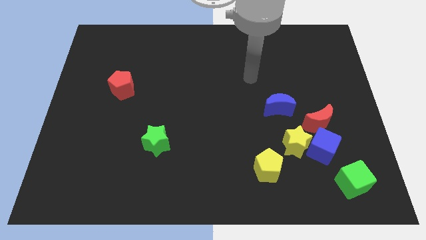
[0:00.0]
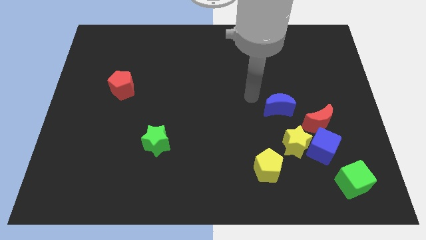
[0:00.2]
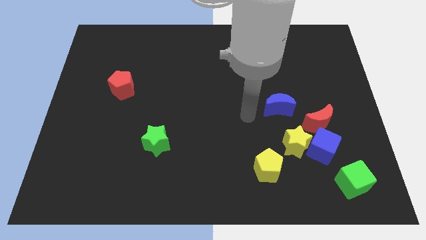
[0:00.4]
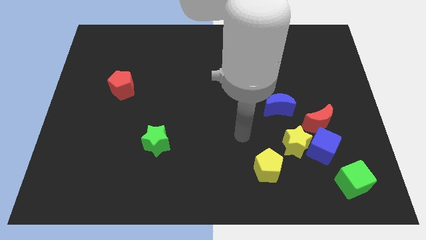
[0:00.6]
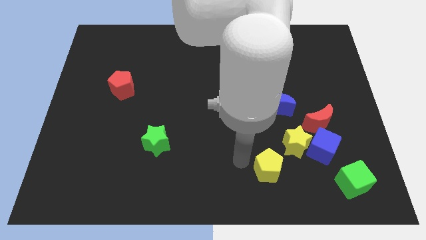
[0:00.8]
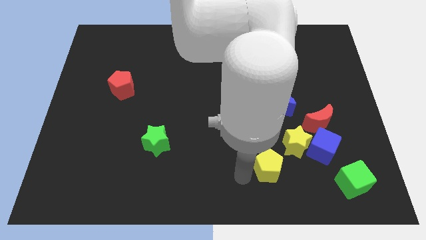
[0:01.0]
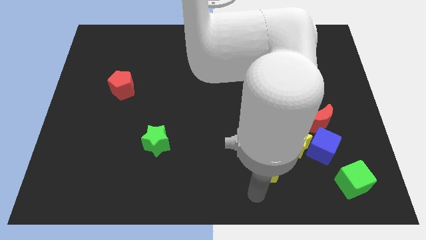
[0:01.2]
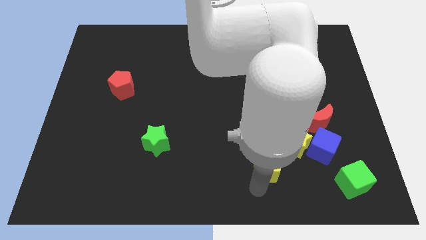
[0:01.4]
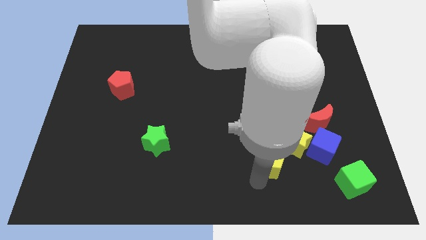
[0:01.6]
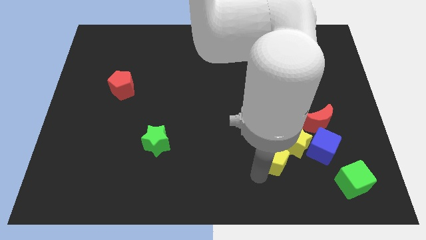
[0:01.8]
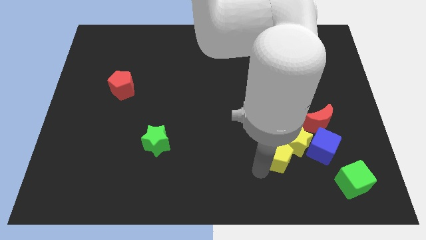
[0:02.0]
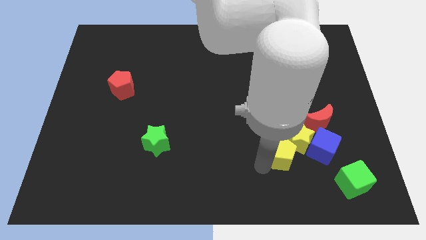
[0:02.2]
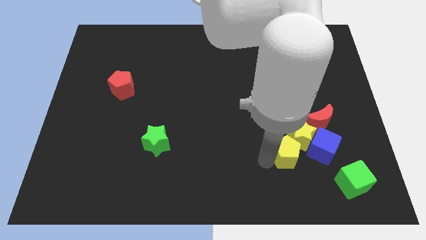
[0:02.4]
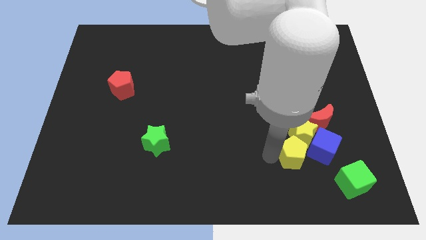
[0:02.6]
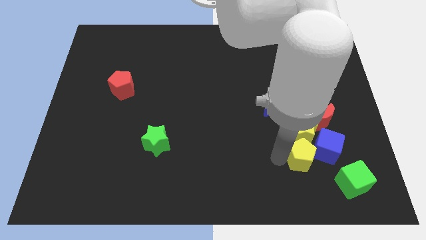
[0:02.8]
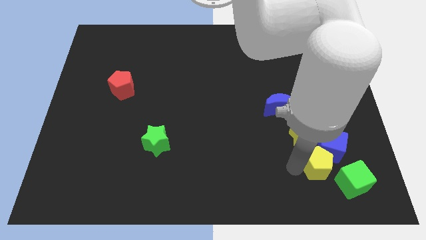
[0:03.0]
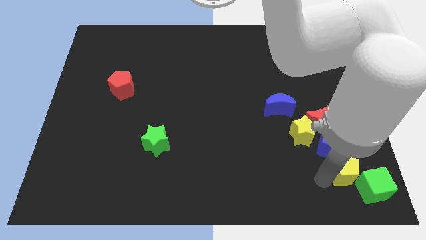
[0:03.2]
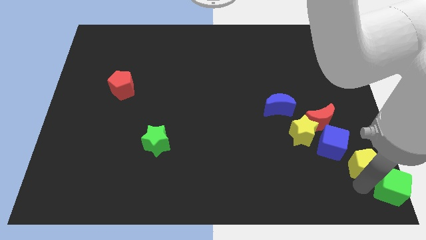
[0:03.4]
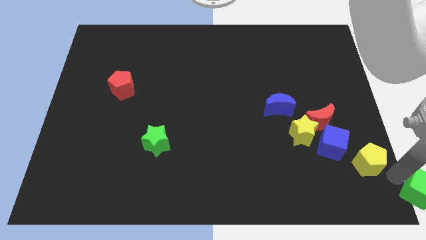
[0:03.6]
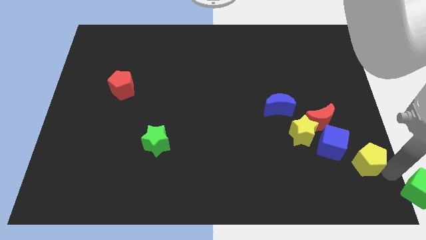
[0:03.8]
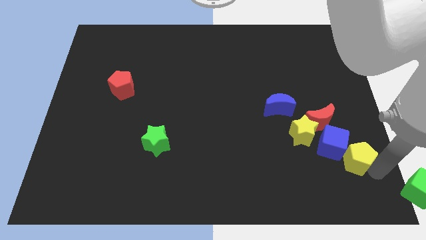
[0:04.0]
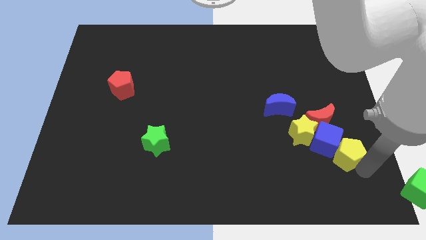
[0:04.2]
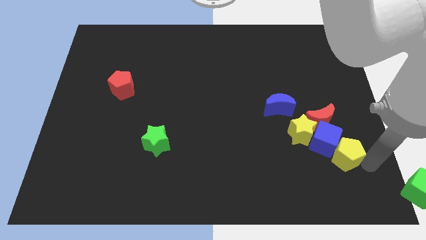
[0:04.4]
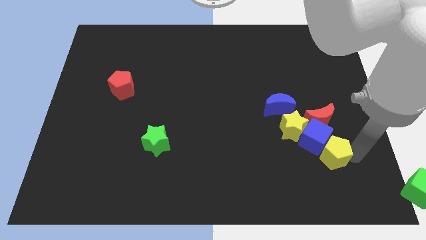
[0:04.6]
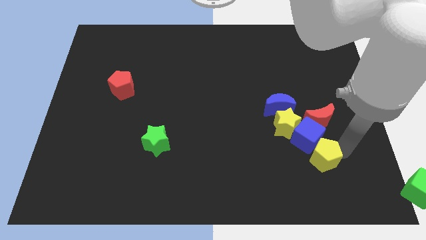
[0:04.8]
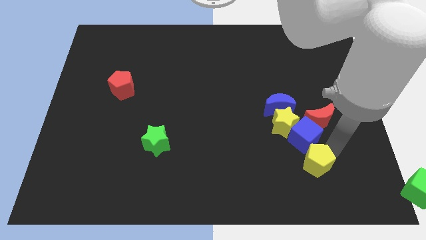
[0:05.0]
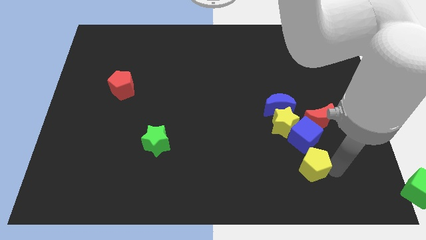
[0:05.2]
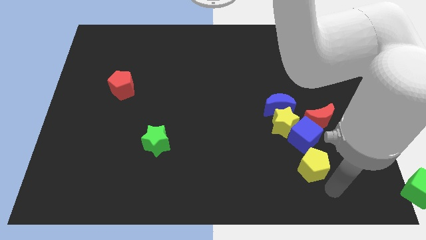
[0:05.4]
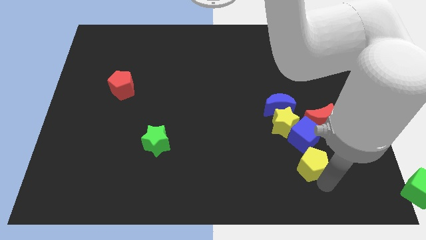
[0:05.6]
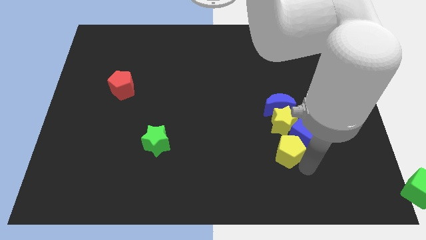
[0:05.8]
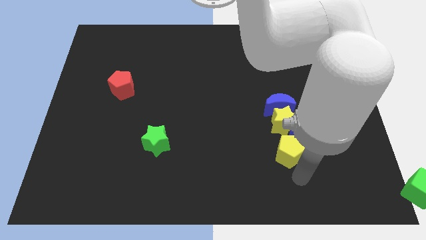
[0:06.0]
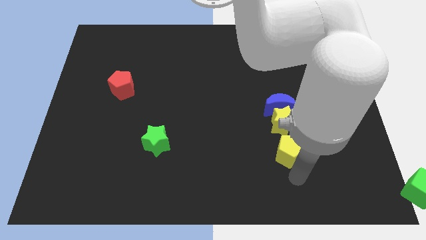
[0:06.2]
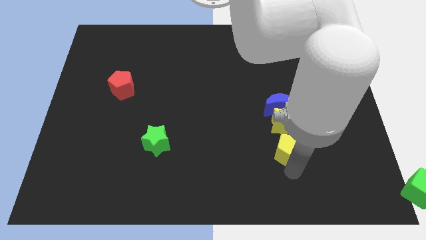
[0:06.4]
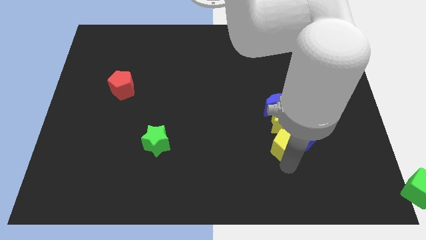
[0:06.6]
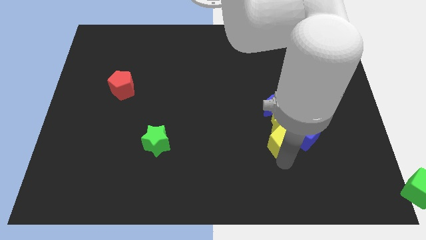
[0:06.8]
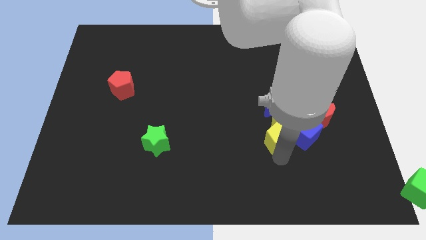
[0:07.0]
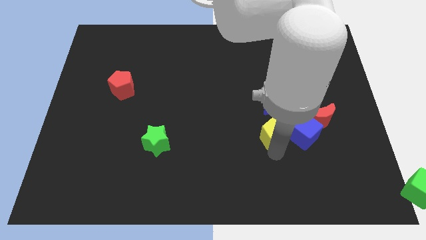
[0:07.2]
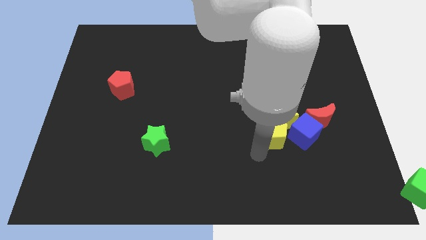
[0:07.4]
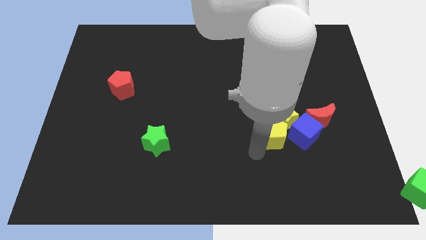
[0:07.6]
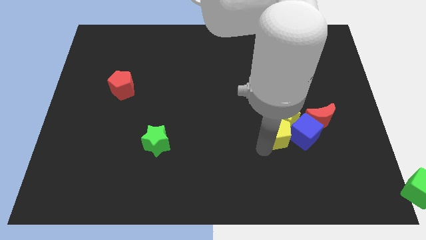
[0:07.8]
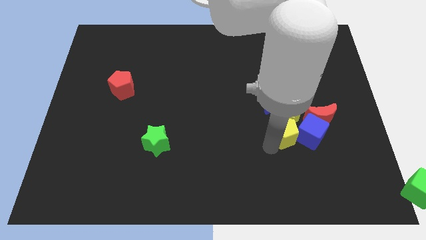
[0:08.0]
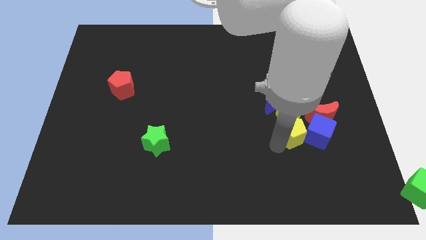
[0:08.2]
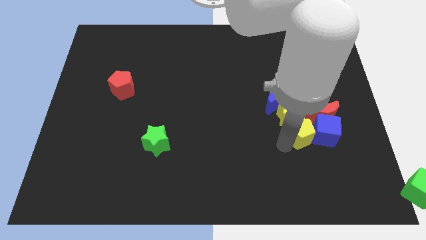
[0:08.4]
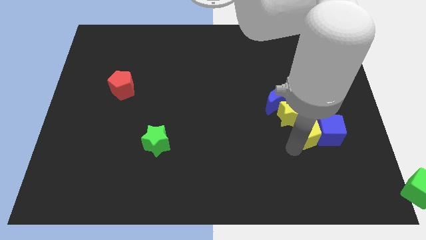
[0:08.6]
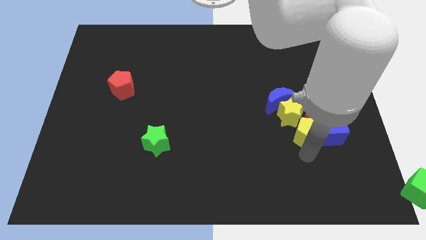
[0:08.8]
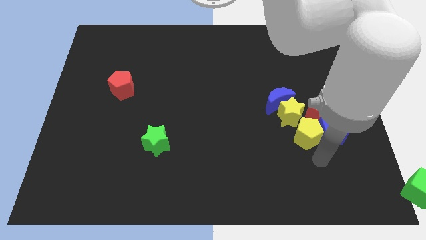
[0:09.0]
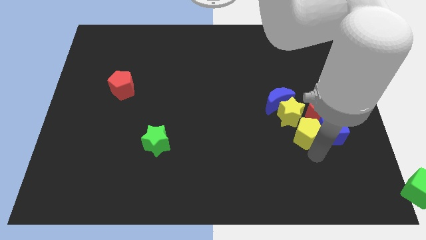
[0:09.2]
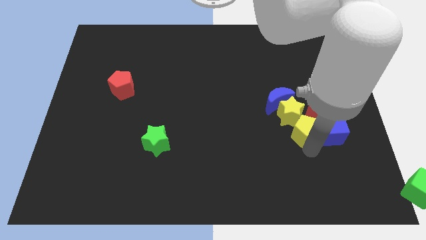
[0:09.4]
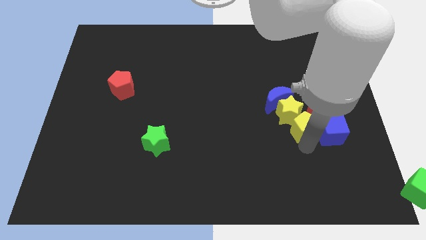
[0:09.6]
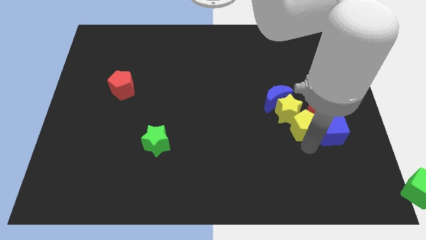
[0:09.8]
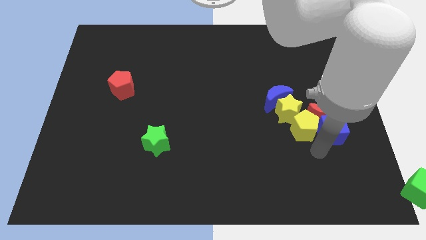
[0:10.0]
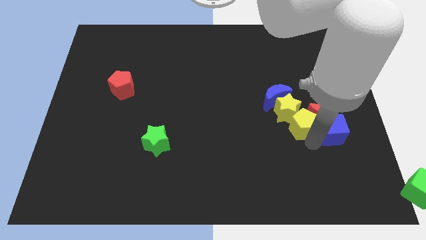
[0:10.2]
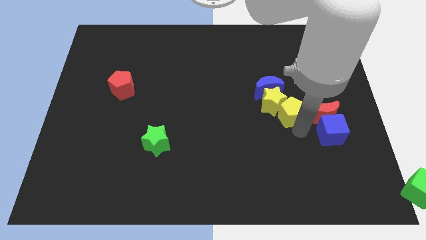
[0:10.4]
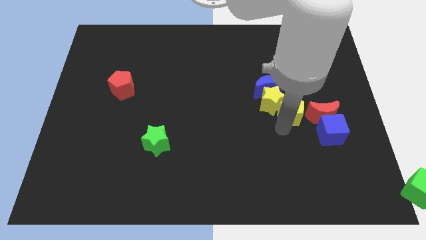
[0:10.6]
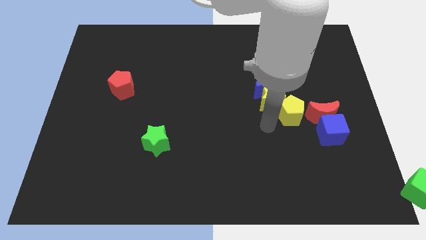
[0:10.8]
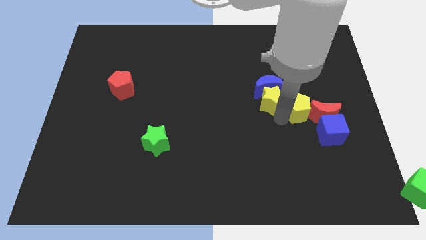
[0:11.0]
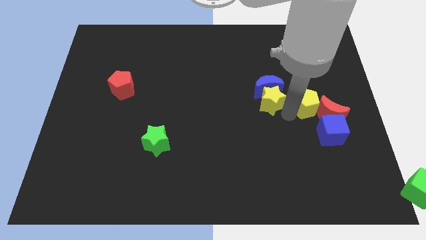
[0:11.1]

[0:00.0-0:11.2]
push the yellow pentagon to the top of the blue cube

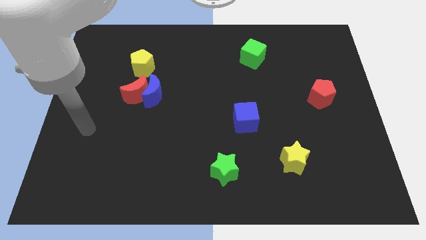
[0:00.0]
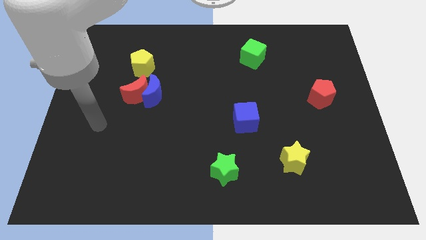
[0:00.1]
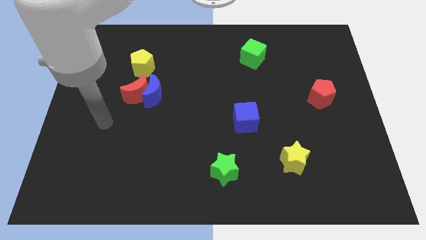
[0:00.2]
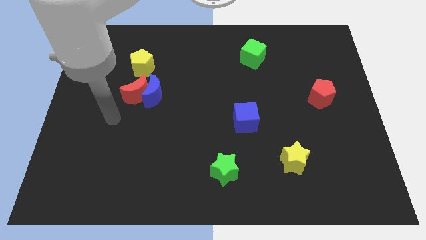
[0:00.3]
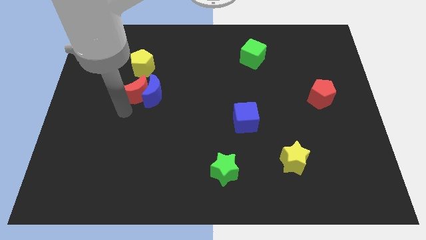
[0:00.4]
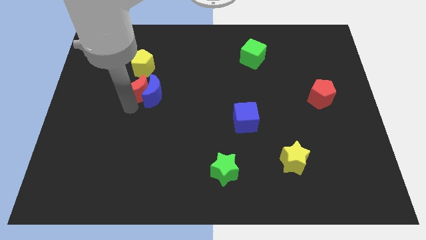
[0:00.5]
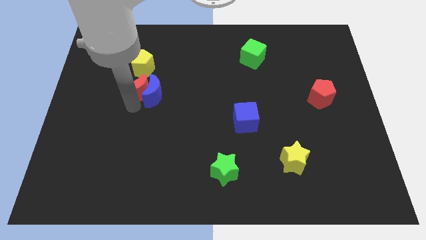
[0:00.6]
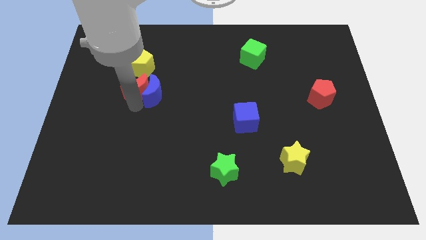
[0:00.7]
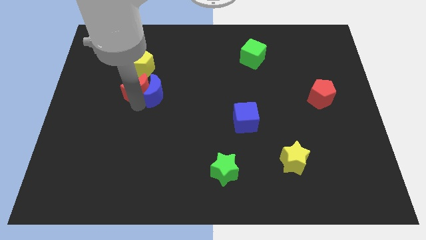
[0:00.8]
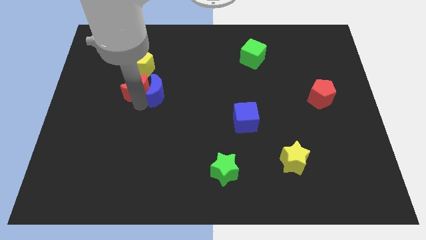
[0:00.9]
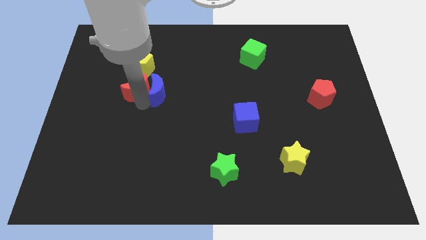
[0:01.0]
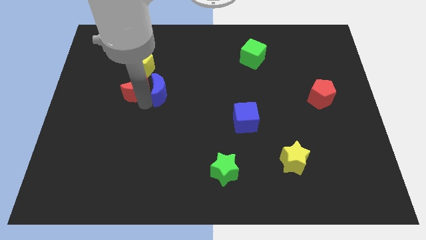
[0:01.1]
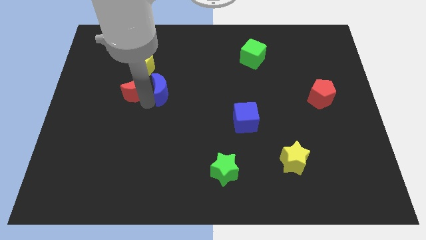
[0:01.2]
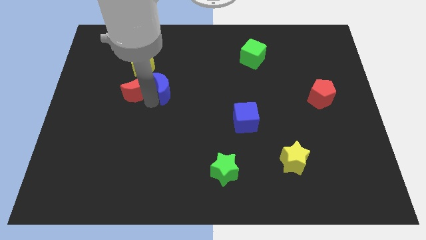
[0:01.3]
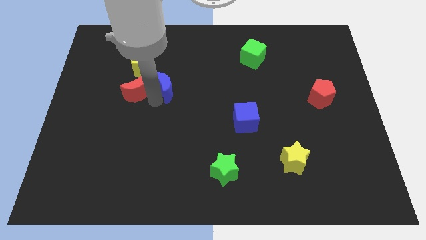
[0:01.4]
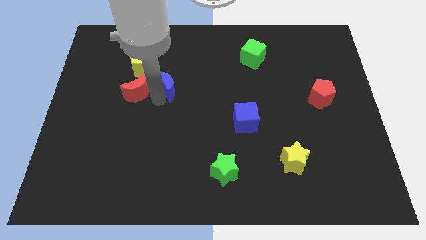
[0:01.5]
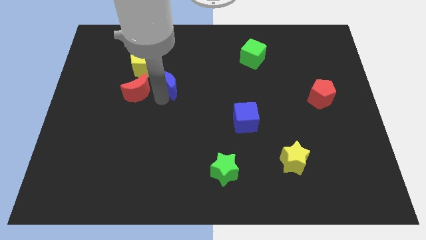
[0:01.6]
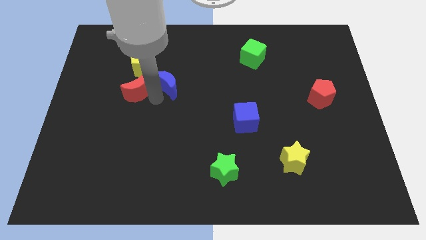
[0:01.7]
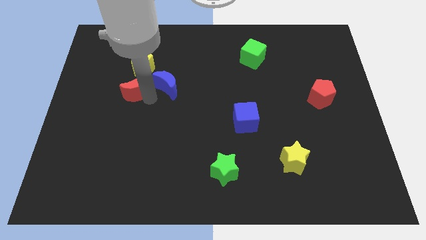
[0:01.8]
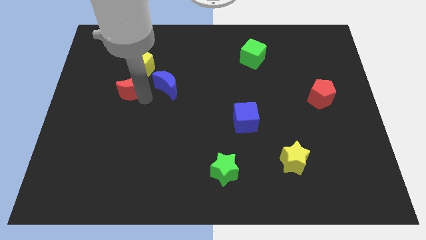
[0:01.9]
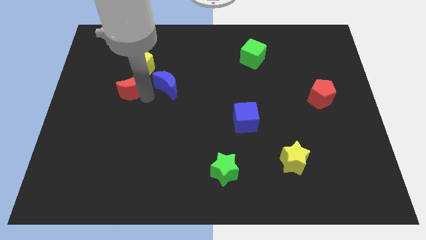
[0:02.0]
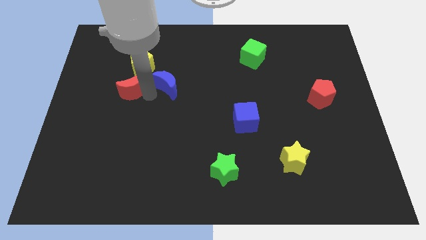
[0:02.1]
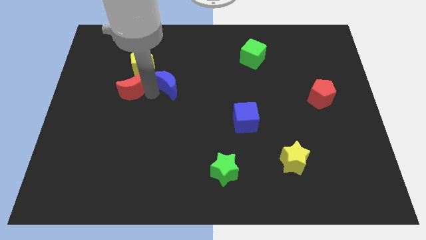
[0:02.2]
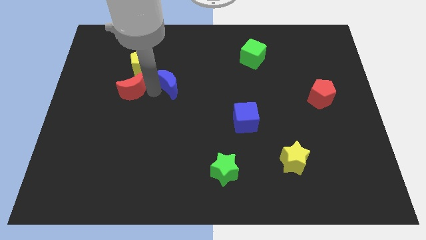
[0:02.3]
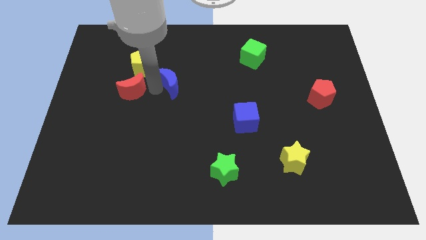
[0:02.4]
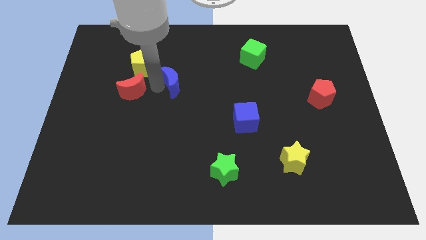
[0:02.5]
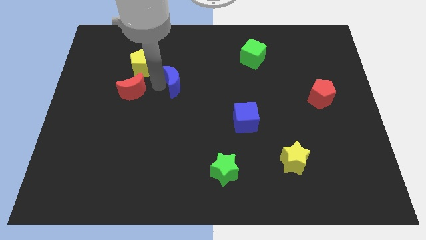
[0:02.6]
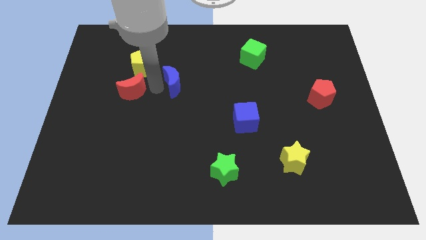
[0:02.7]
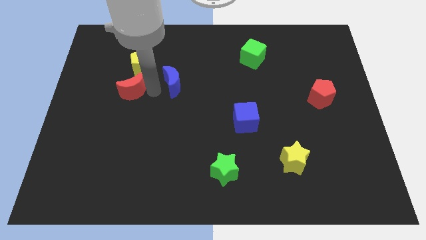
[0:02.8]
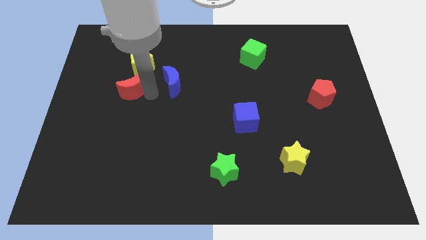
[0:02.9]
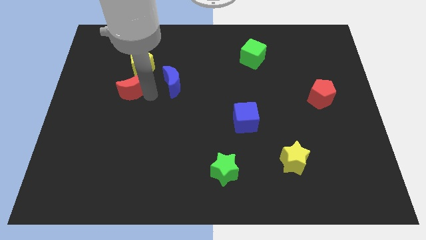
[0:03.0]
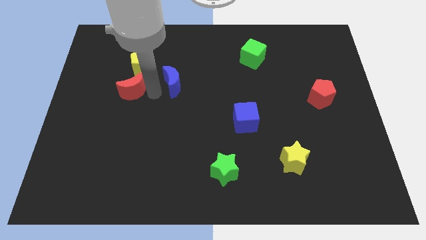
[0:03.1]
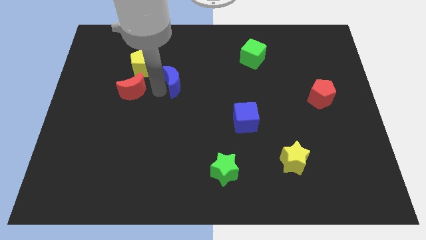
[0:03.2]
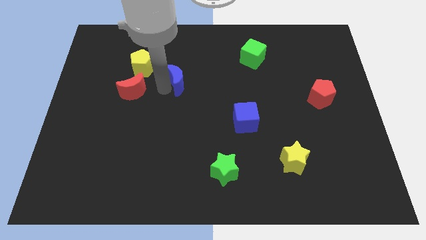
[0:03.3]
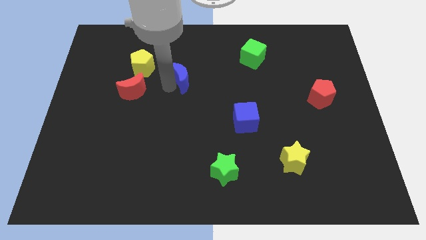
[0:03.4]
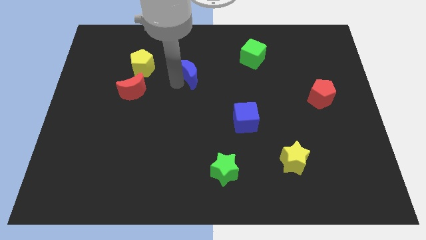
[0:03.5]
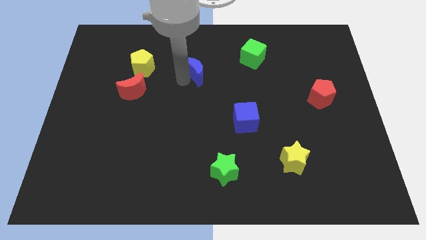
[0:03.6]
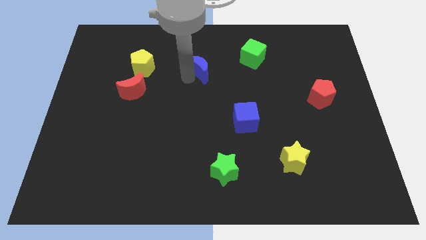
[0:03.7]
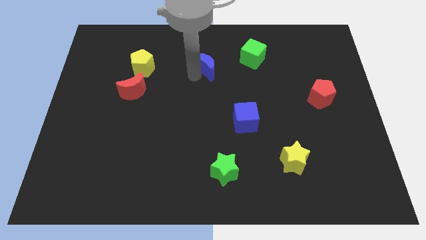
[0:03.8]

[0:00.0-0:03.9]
put the blue moon just left of the green cube
